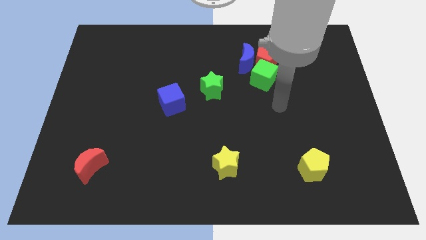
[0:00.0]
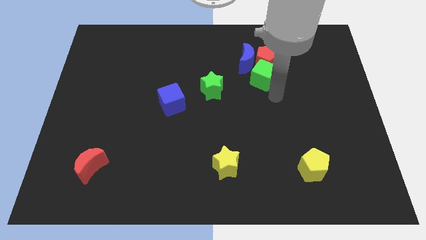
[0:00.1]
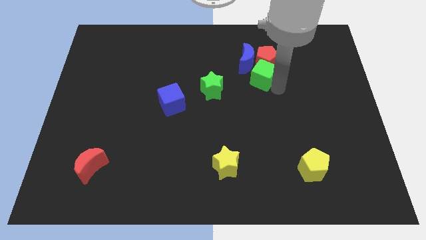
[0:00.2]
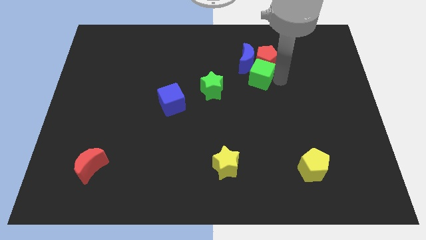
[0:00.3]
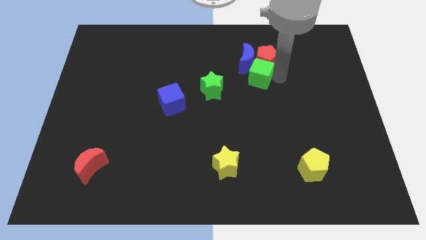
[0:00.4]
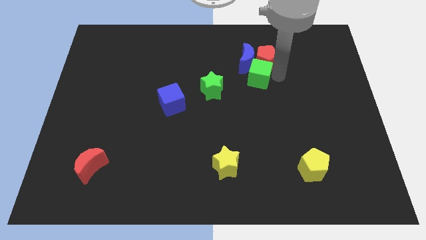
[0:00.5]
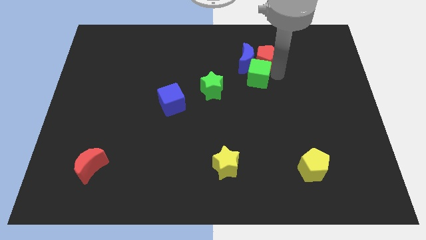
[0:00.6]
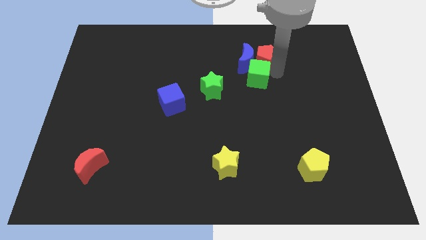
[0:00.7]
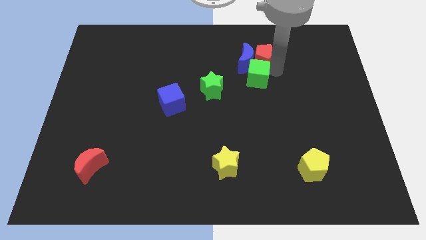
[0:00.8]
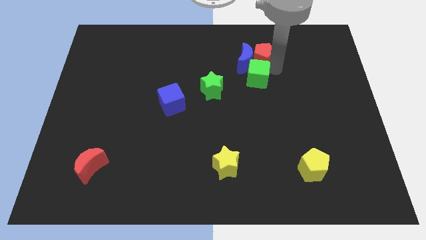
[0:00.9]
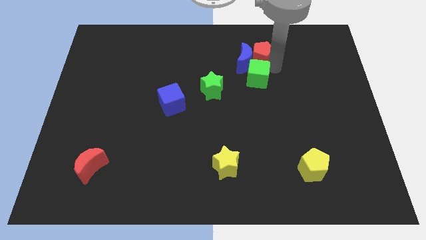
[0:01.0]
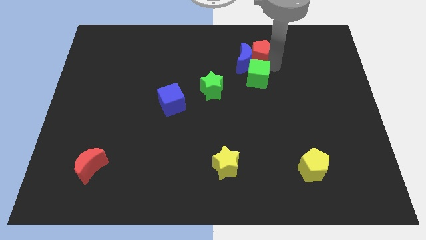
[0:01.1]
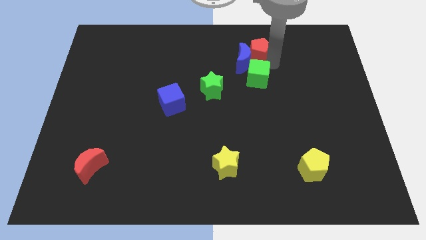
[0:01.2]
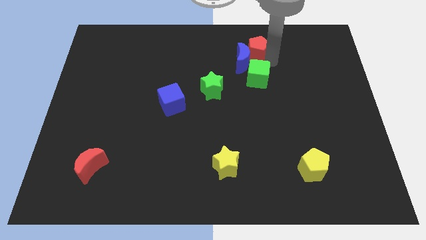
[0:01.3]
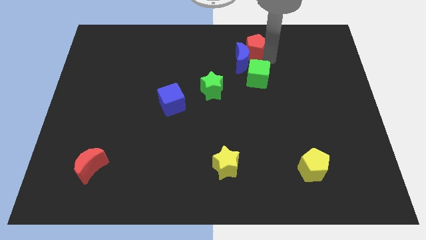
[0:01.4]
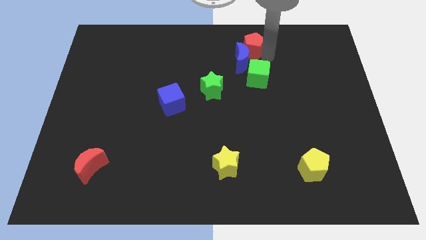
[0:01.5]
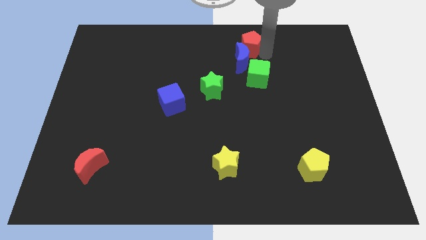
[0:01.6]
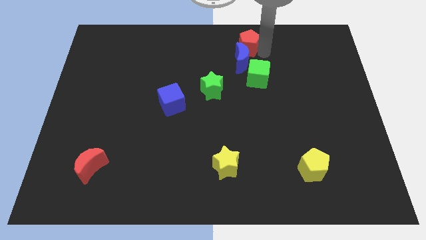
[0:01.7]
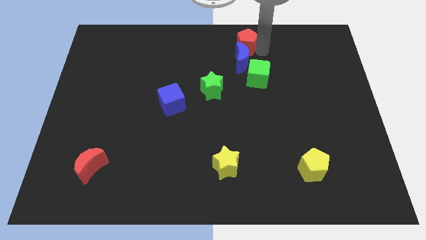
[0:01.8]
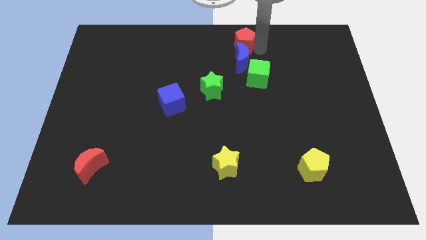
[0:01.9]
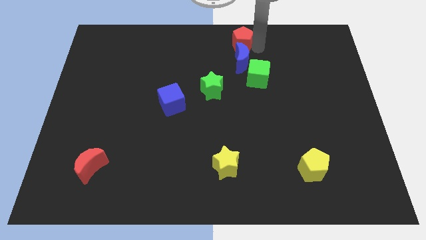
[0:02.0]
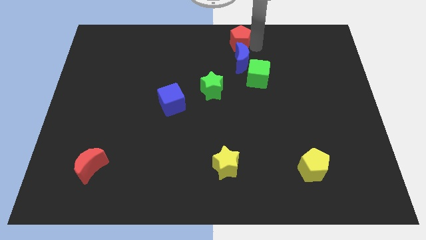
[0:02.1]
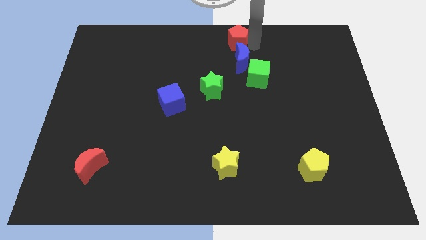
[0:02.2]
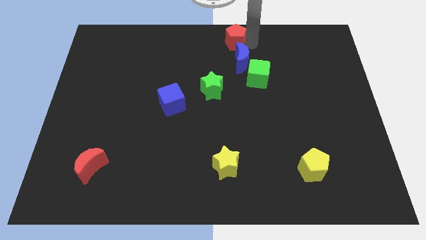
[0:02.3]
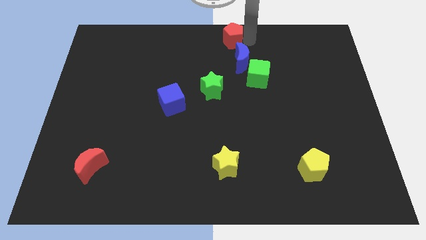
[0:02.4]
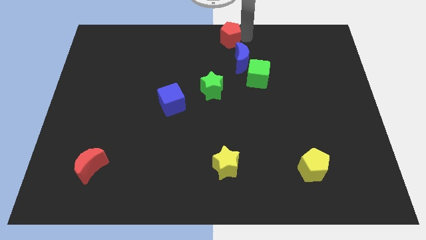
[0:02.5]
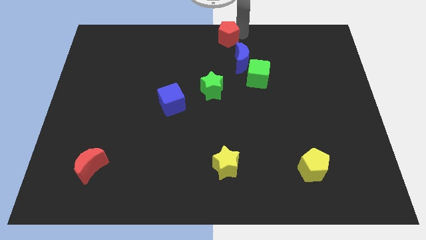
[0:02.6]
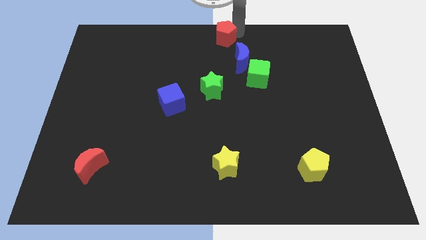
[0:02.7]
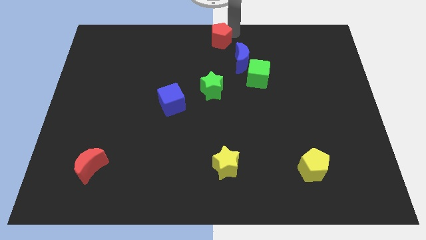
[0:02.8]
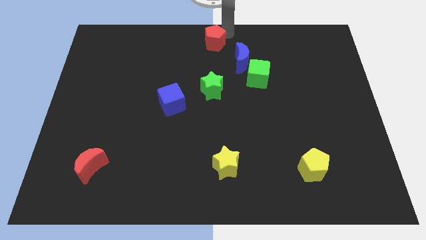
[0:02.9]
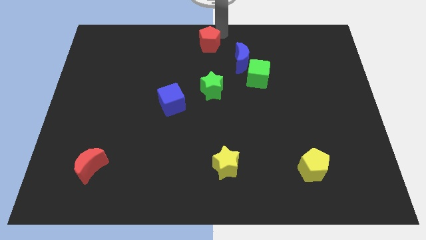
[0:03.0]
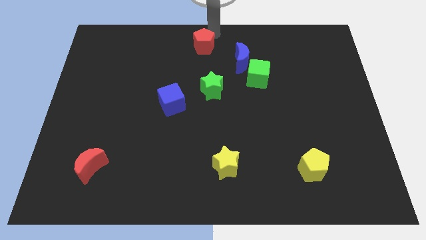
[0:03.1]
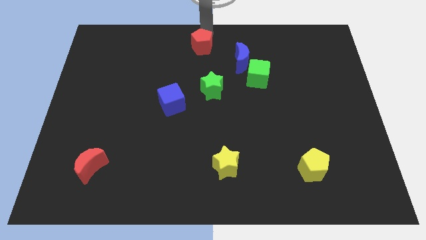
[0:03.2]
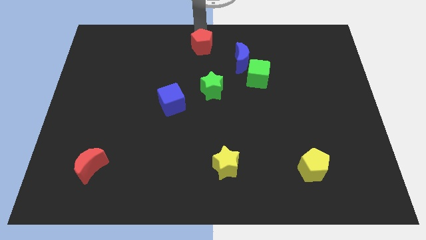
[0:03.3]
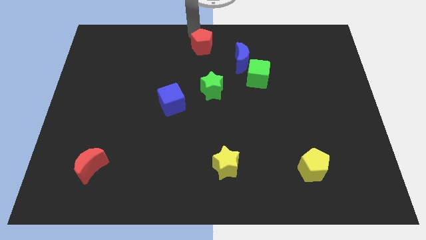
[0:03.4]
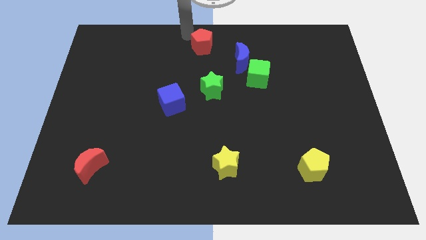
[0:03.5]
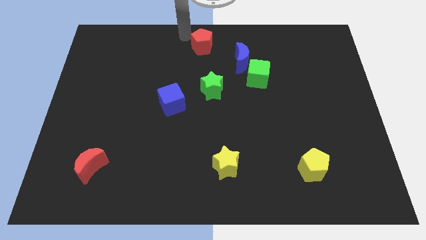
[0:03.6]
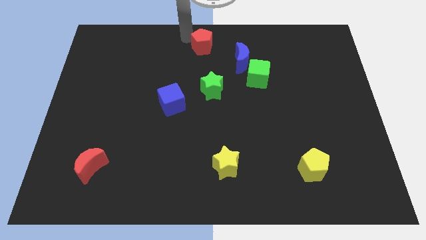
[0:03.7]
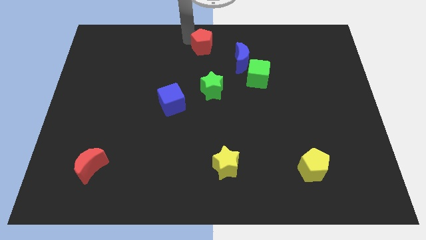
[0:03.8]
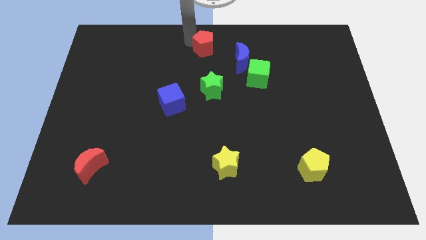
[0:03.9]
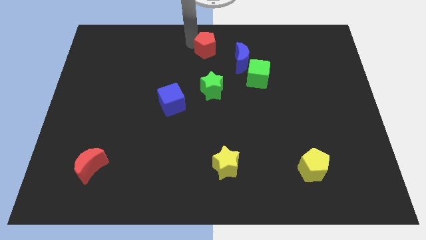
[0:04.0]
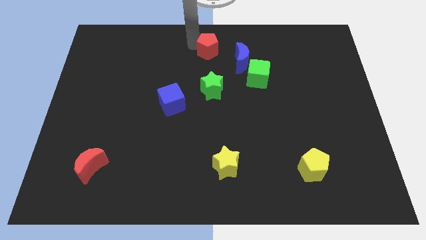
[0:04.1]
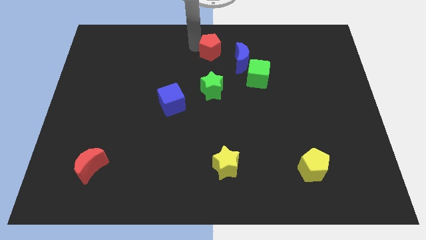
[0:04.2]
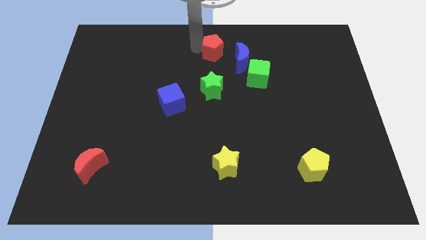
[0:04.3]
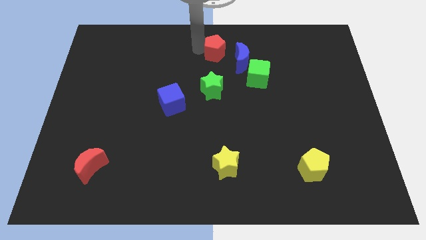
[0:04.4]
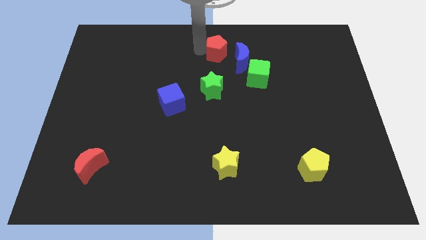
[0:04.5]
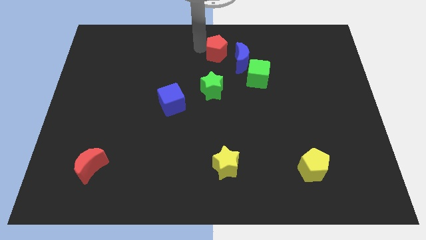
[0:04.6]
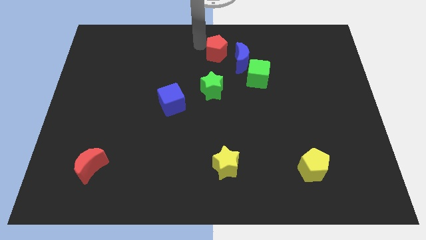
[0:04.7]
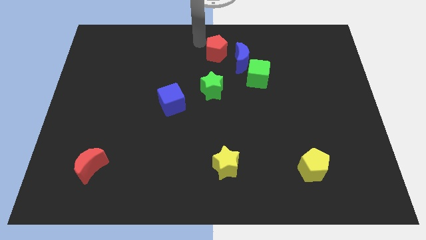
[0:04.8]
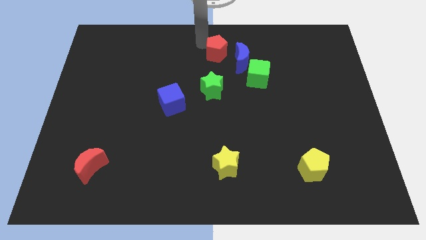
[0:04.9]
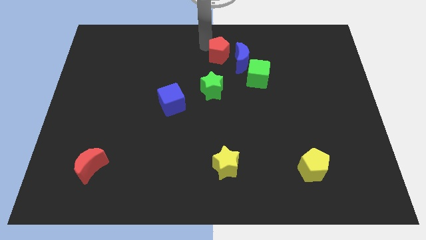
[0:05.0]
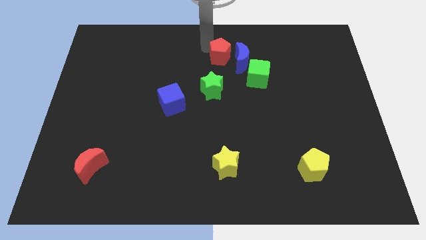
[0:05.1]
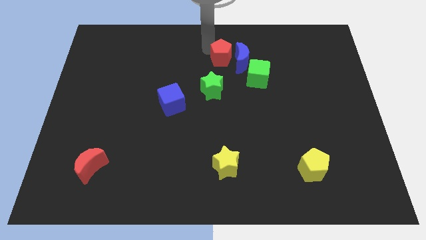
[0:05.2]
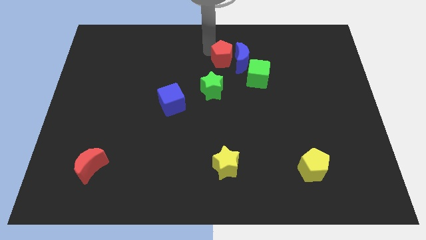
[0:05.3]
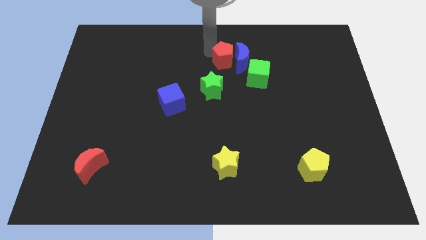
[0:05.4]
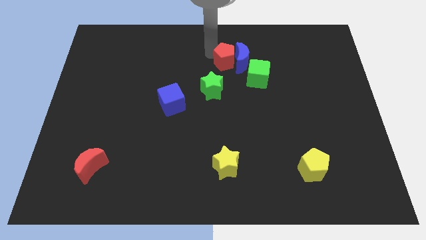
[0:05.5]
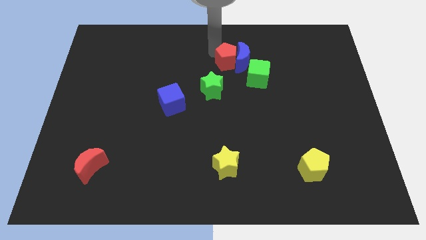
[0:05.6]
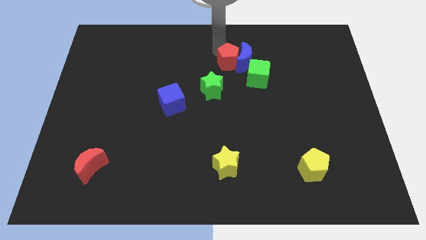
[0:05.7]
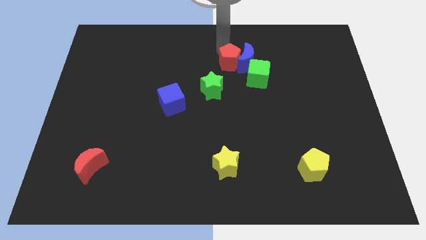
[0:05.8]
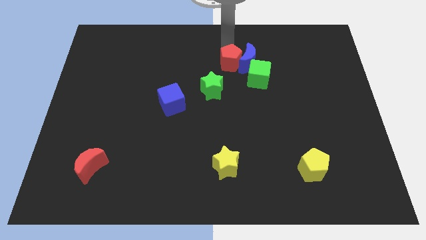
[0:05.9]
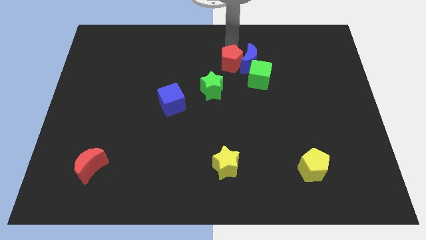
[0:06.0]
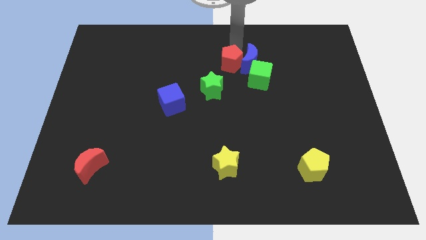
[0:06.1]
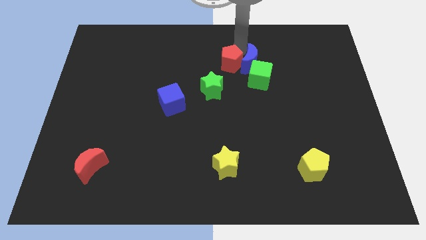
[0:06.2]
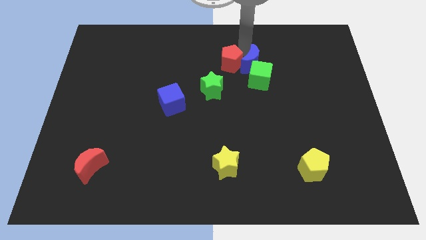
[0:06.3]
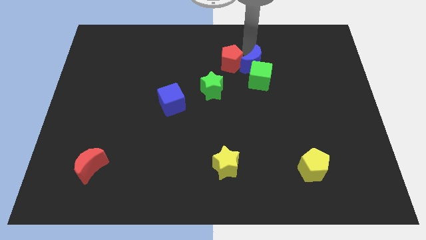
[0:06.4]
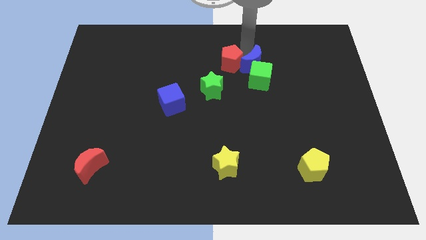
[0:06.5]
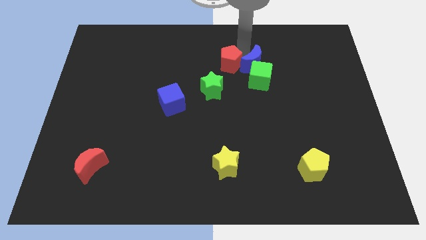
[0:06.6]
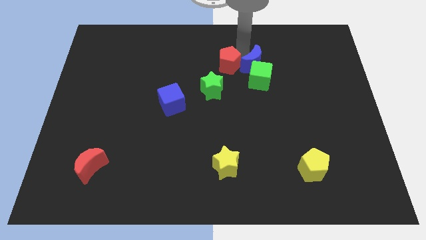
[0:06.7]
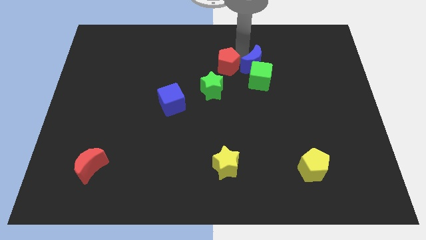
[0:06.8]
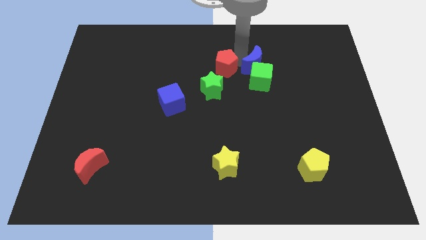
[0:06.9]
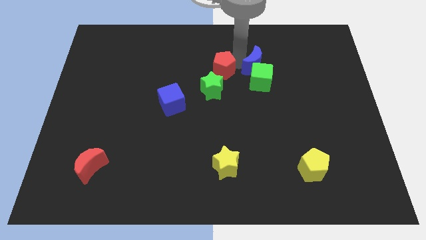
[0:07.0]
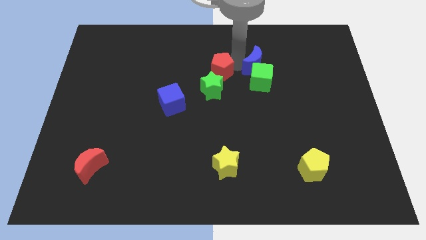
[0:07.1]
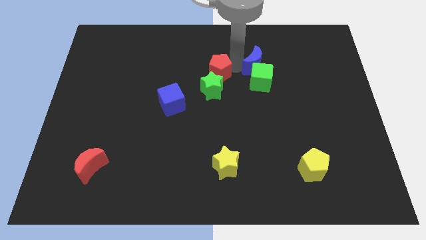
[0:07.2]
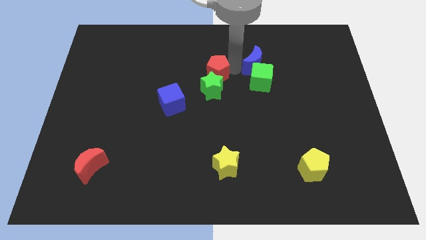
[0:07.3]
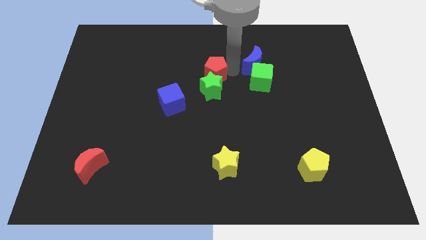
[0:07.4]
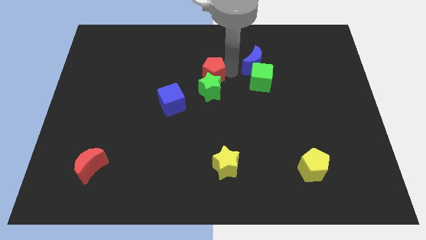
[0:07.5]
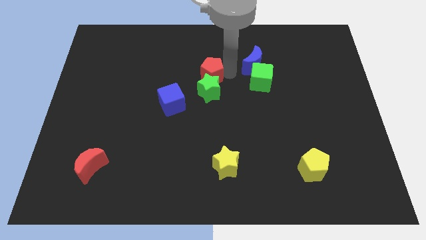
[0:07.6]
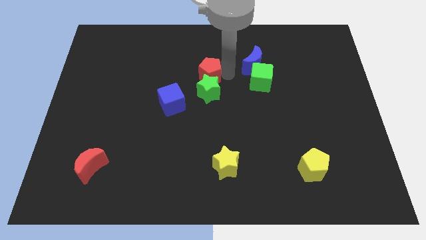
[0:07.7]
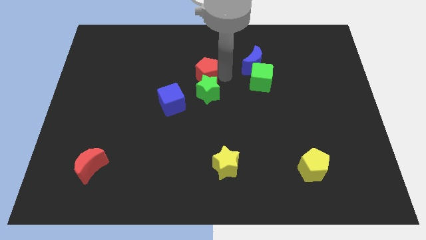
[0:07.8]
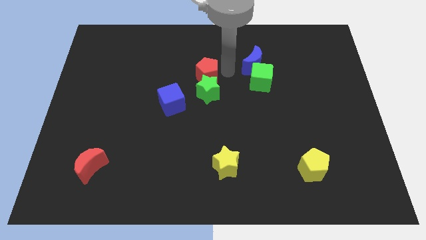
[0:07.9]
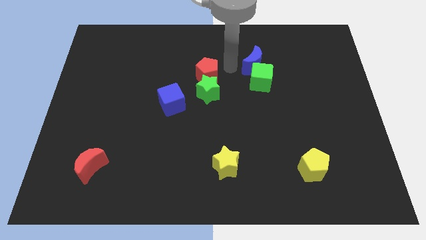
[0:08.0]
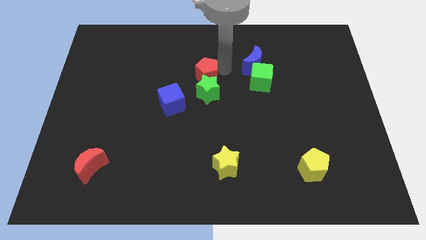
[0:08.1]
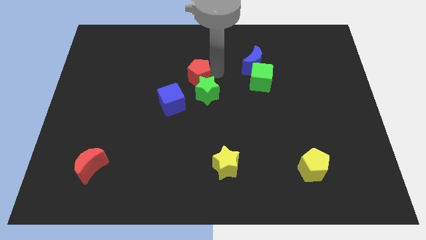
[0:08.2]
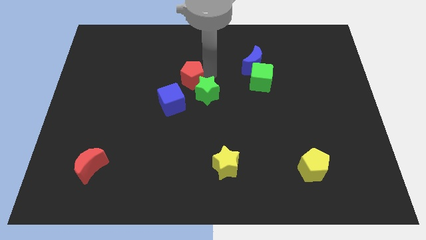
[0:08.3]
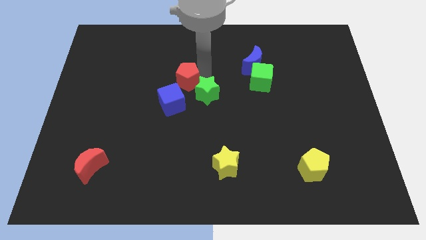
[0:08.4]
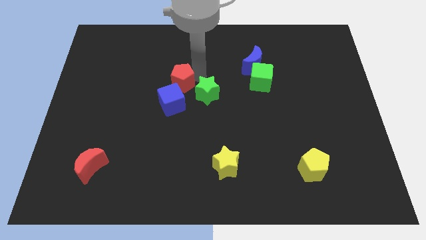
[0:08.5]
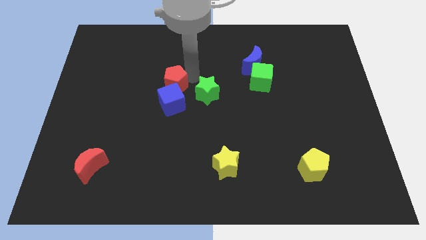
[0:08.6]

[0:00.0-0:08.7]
slide the red pentagon to the blue cube
